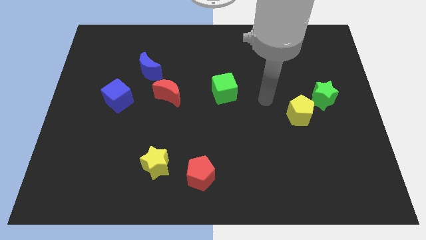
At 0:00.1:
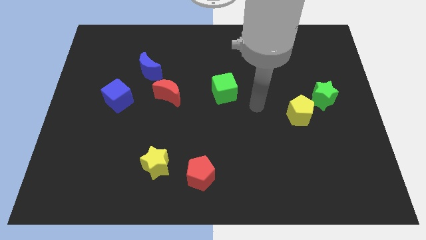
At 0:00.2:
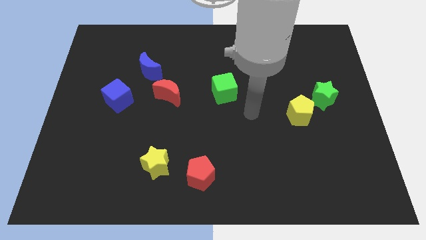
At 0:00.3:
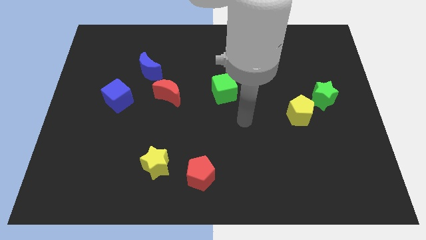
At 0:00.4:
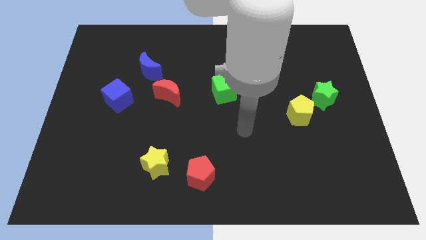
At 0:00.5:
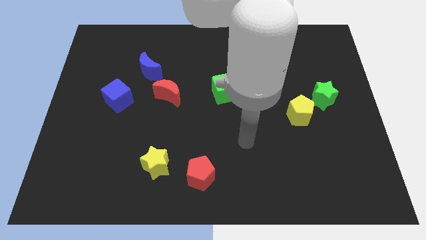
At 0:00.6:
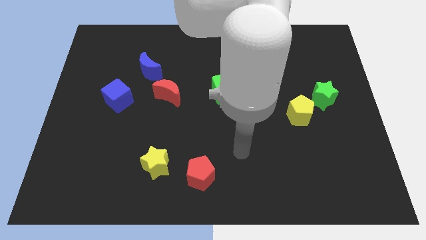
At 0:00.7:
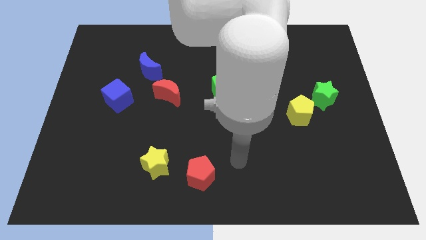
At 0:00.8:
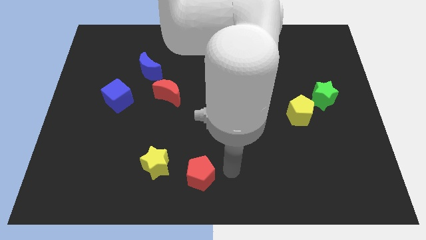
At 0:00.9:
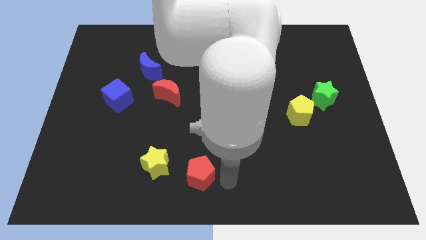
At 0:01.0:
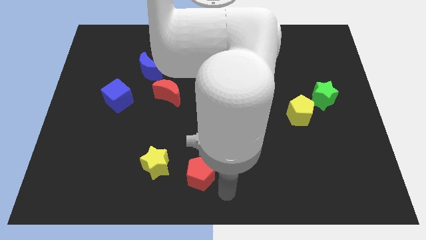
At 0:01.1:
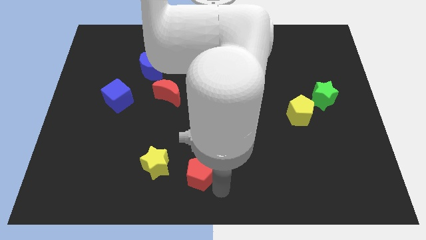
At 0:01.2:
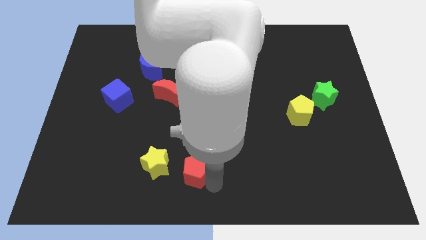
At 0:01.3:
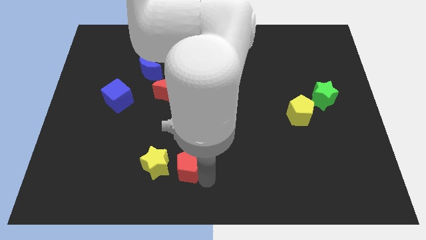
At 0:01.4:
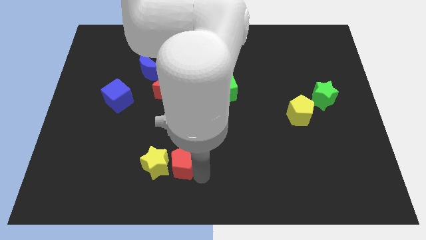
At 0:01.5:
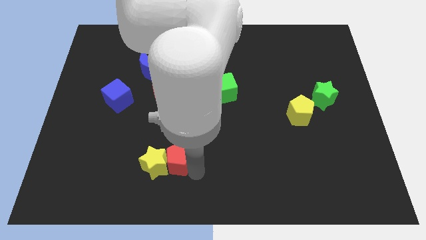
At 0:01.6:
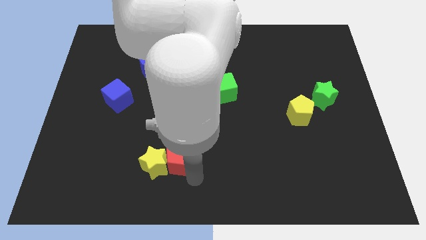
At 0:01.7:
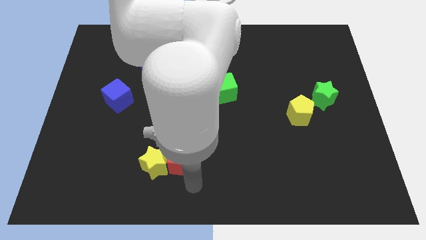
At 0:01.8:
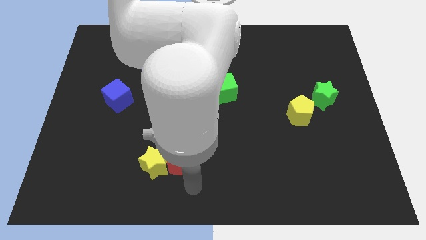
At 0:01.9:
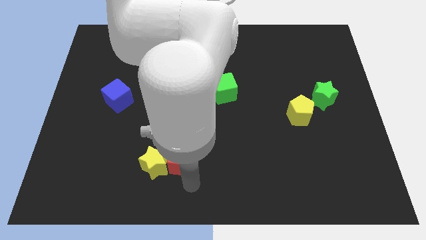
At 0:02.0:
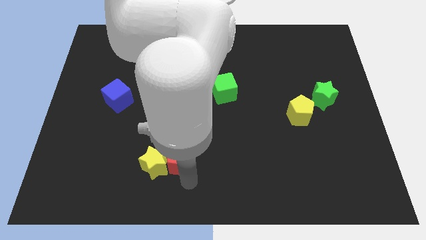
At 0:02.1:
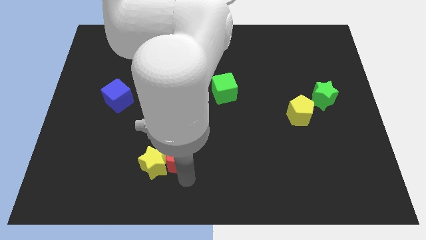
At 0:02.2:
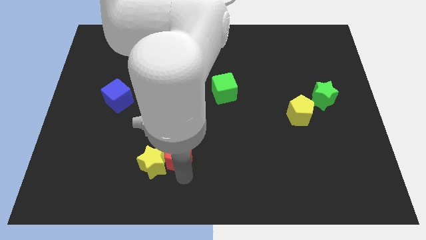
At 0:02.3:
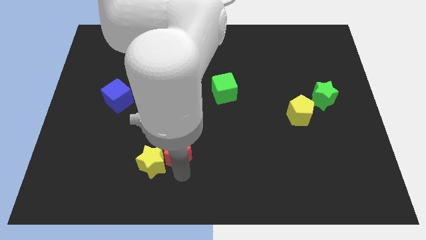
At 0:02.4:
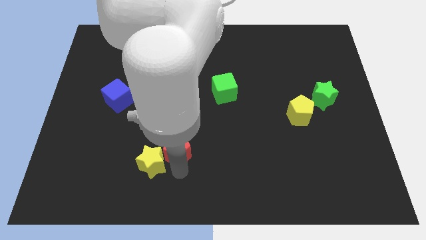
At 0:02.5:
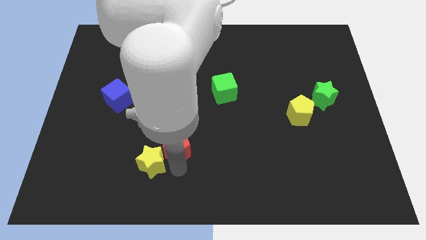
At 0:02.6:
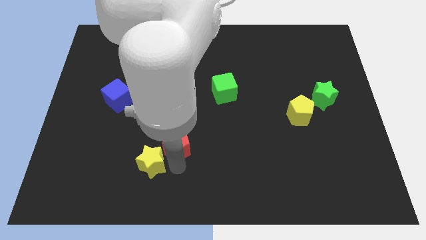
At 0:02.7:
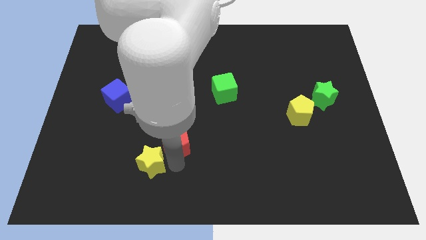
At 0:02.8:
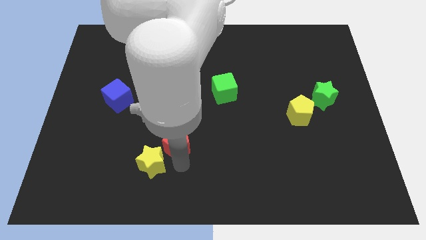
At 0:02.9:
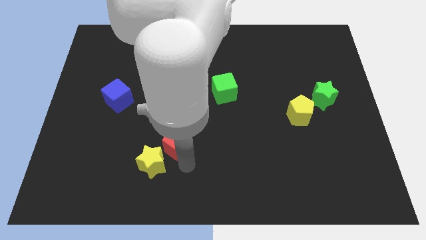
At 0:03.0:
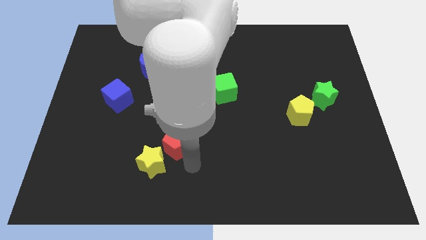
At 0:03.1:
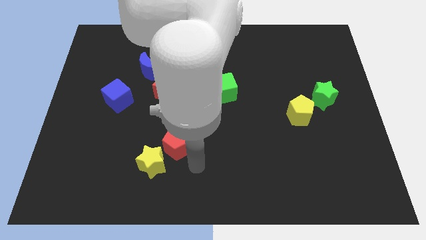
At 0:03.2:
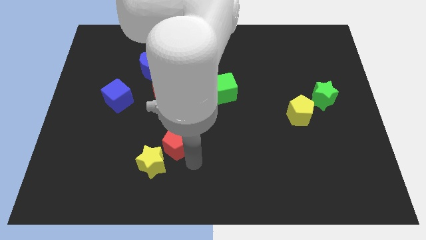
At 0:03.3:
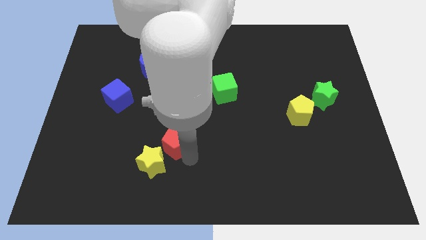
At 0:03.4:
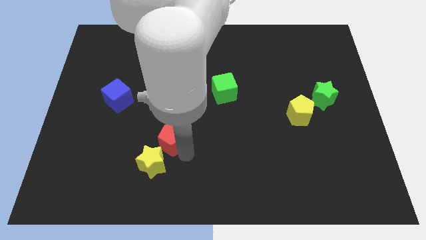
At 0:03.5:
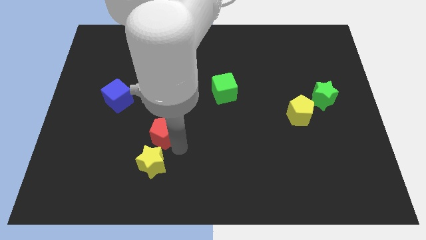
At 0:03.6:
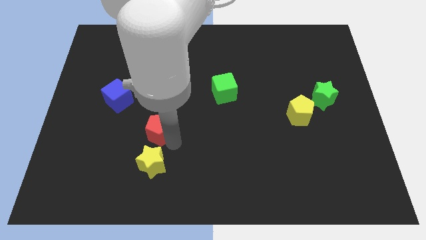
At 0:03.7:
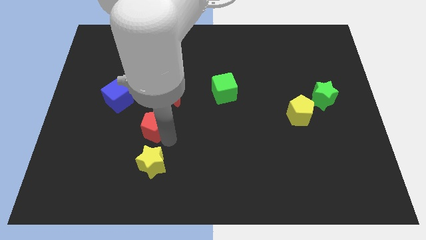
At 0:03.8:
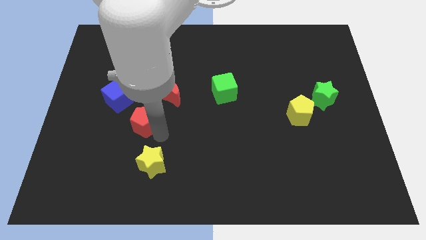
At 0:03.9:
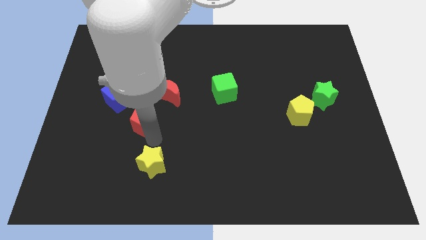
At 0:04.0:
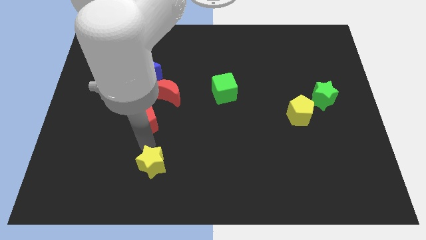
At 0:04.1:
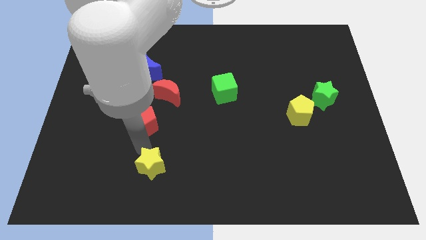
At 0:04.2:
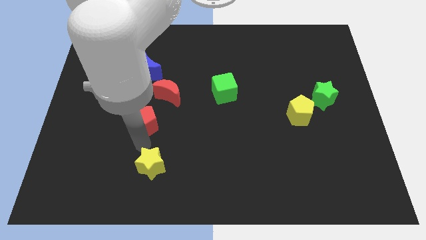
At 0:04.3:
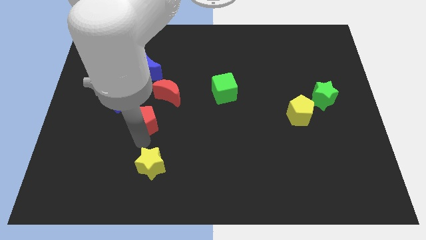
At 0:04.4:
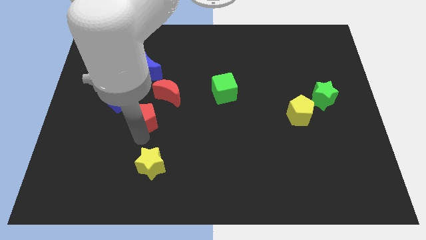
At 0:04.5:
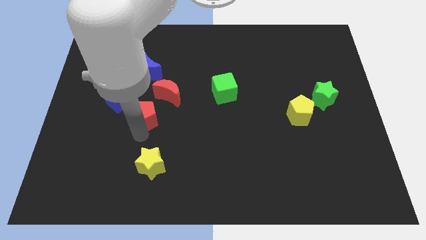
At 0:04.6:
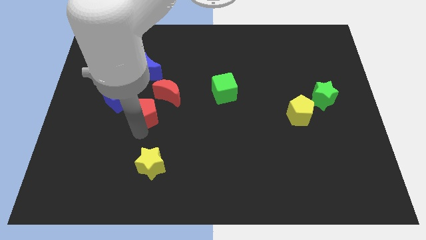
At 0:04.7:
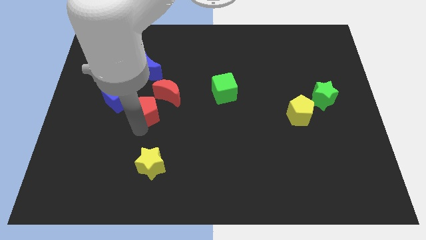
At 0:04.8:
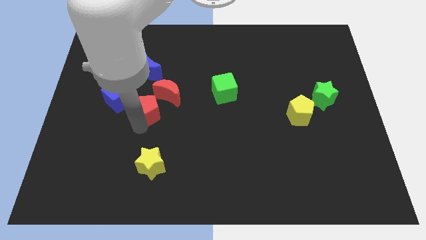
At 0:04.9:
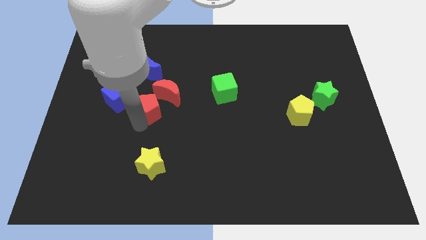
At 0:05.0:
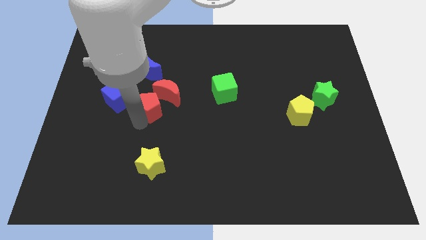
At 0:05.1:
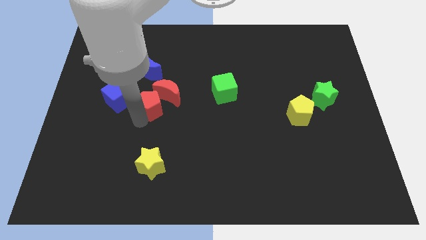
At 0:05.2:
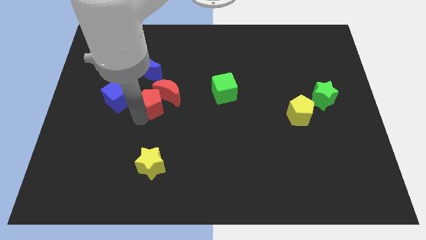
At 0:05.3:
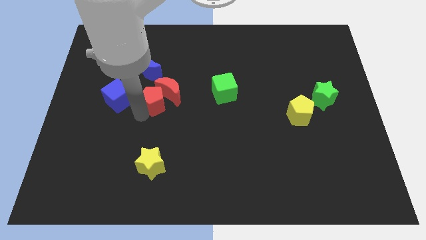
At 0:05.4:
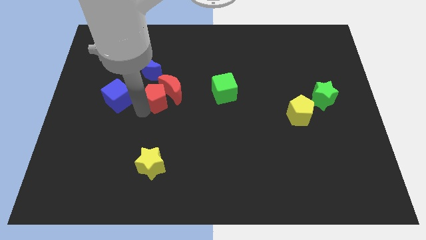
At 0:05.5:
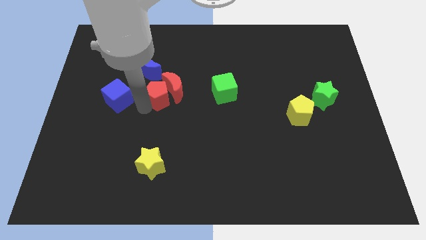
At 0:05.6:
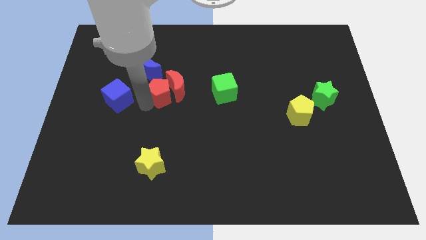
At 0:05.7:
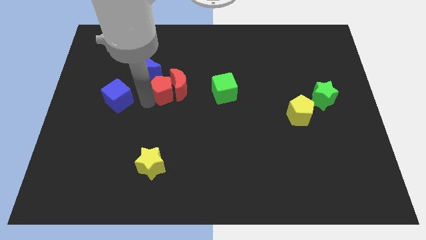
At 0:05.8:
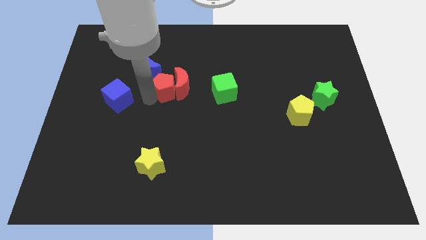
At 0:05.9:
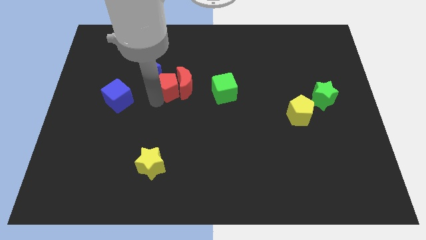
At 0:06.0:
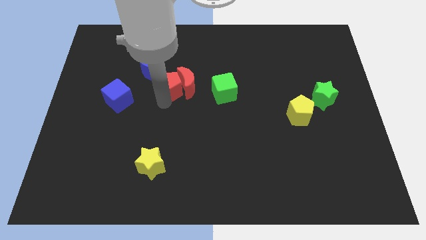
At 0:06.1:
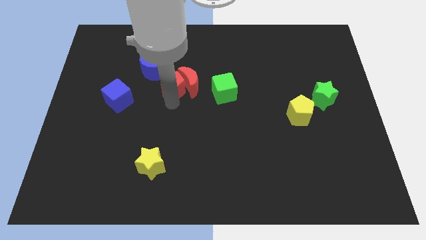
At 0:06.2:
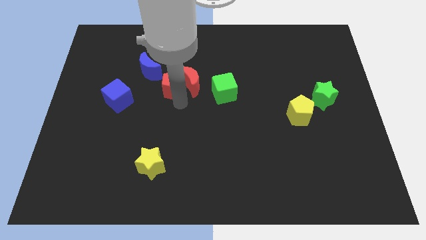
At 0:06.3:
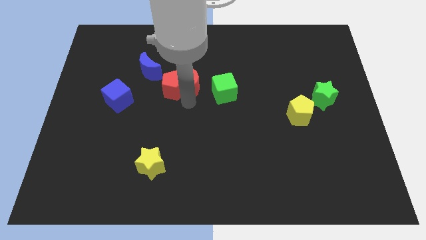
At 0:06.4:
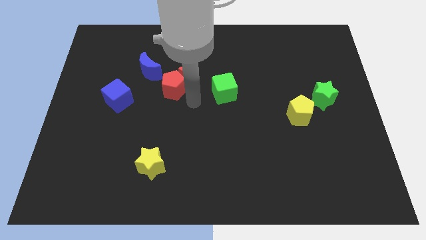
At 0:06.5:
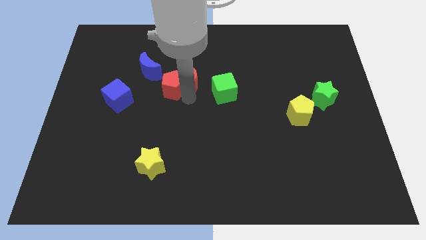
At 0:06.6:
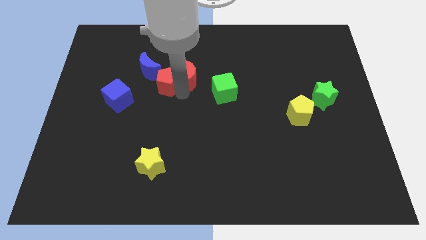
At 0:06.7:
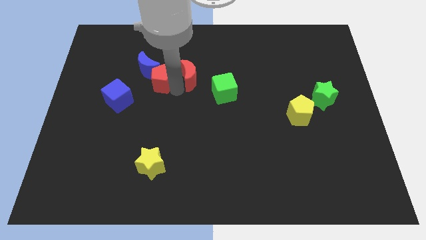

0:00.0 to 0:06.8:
slide the red pentagon to the blue moon

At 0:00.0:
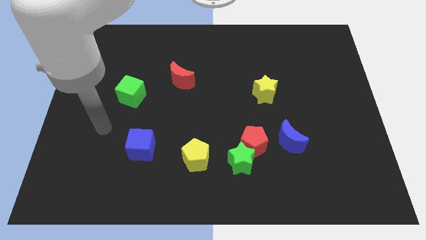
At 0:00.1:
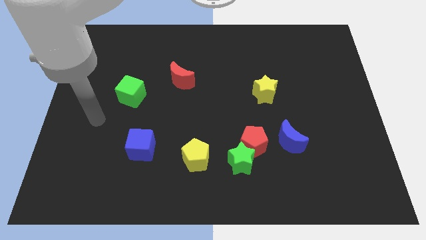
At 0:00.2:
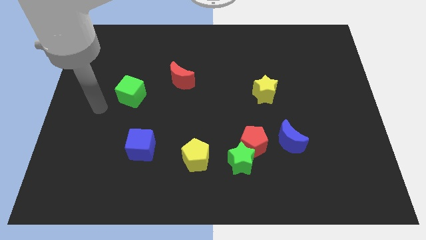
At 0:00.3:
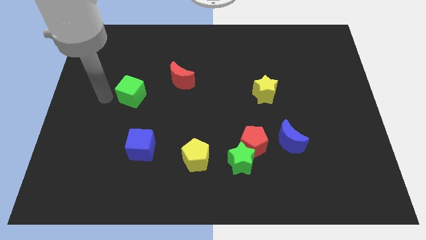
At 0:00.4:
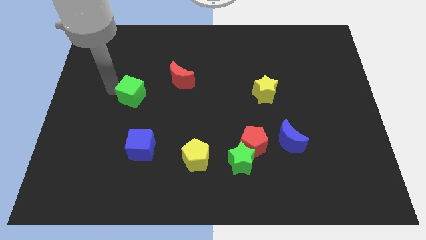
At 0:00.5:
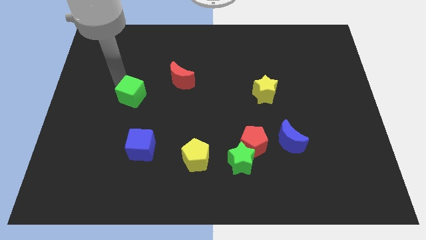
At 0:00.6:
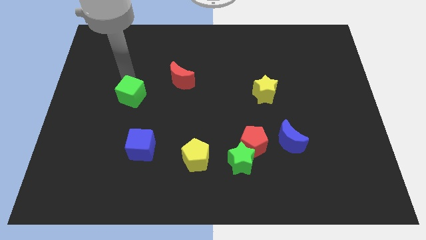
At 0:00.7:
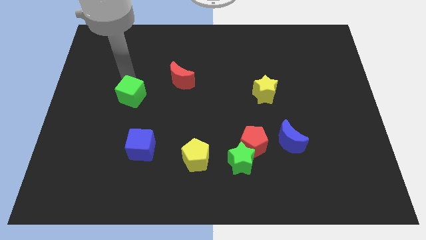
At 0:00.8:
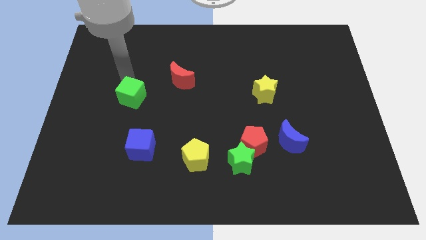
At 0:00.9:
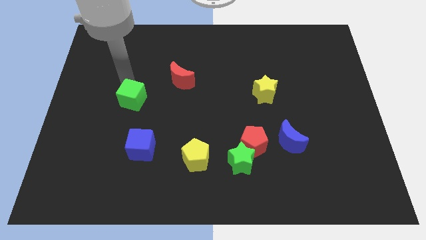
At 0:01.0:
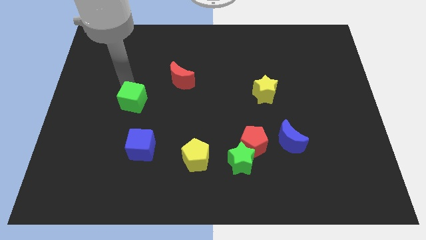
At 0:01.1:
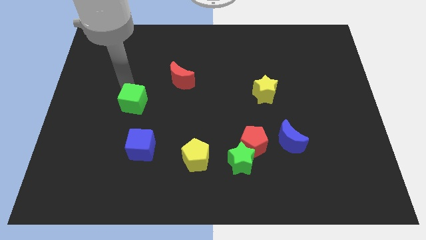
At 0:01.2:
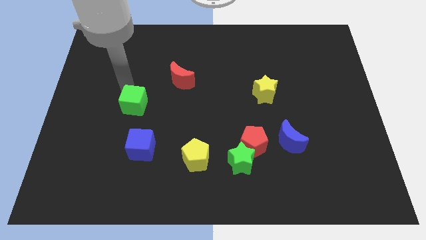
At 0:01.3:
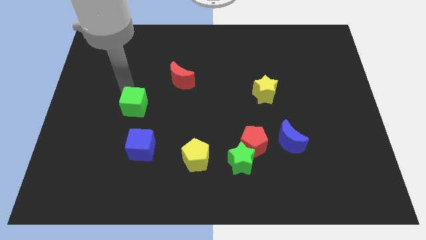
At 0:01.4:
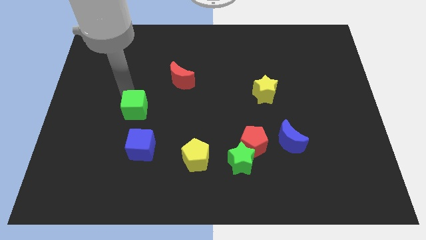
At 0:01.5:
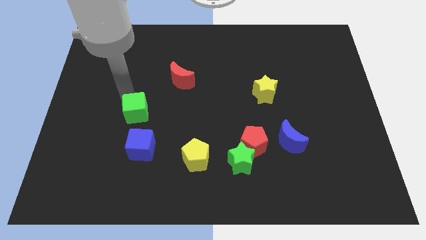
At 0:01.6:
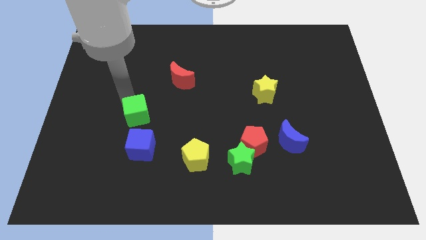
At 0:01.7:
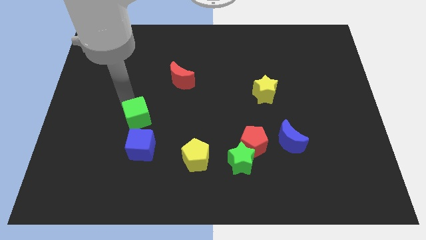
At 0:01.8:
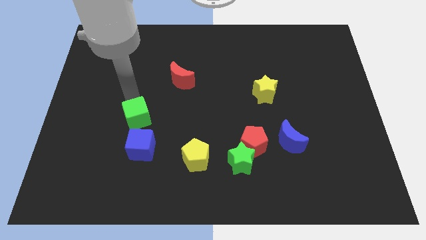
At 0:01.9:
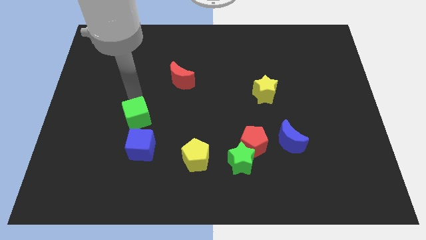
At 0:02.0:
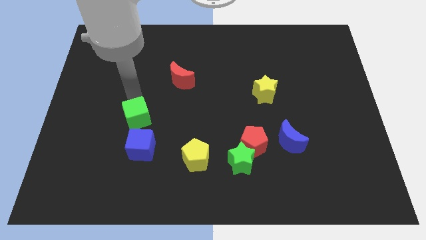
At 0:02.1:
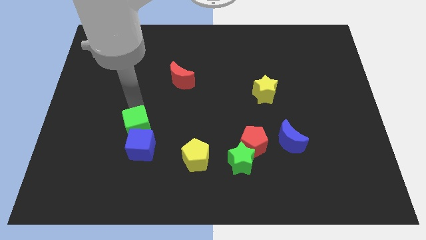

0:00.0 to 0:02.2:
put the green cube to the blue cube
